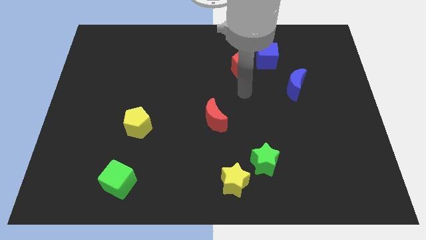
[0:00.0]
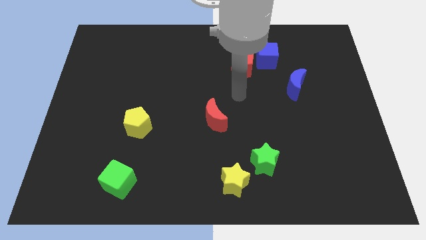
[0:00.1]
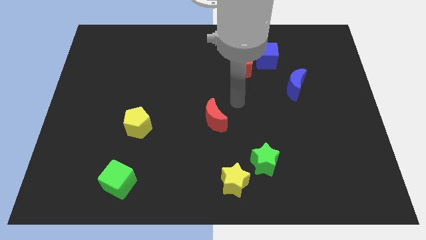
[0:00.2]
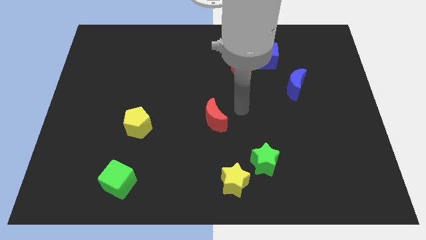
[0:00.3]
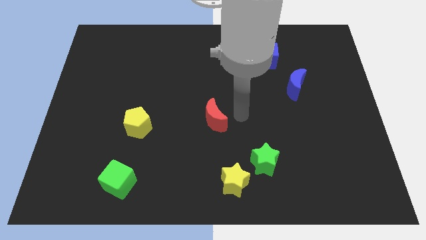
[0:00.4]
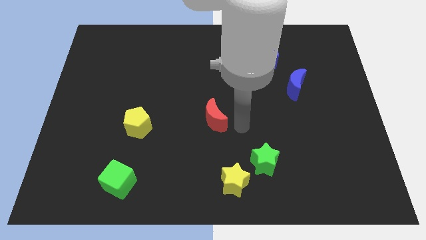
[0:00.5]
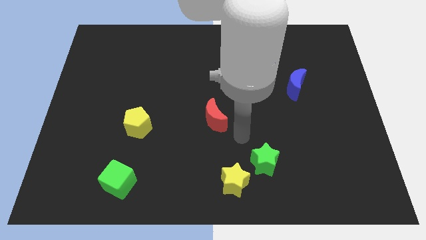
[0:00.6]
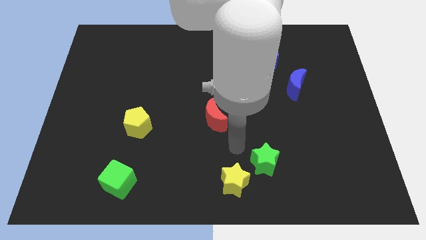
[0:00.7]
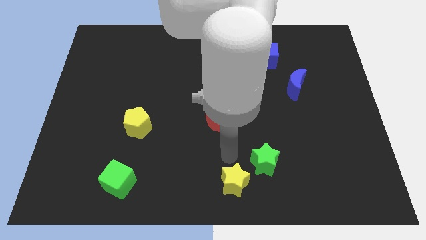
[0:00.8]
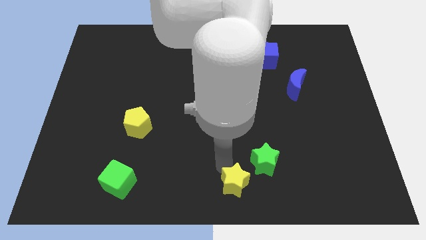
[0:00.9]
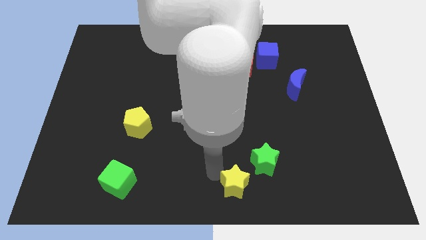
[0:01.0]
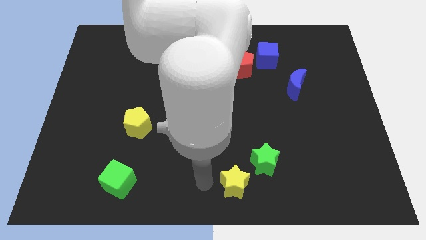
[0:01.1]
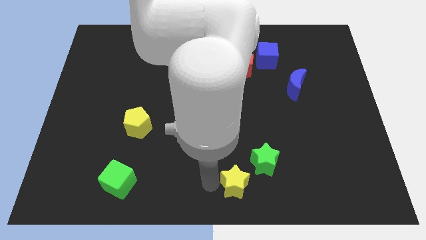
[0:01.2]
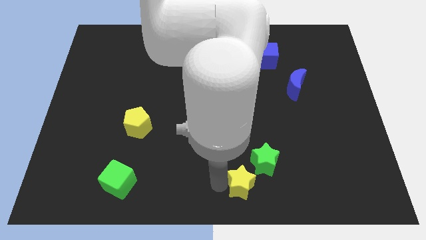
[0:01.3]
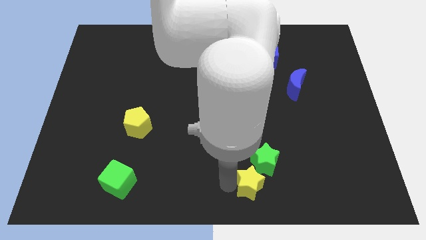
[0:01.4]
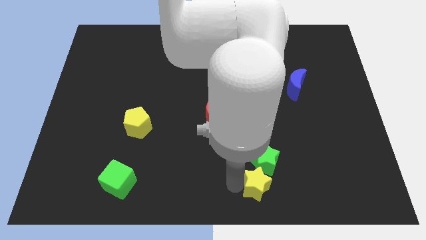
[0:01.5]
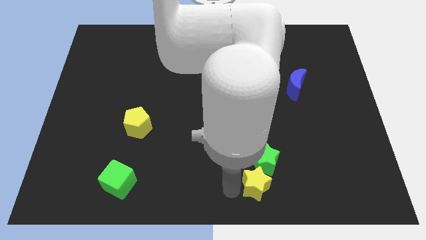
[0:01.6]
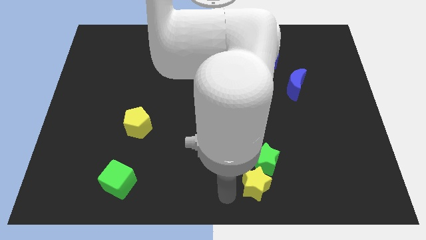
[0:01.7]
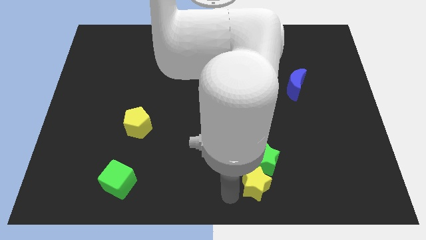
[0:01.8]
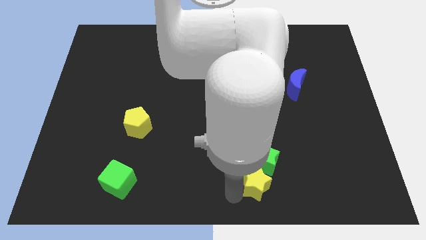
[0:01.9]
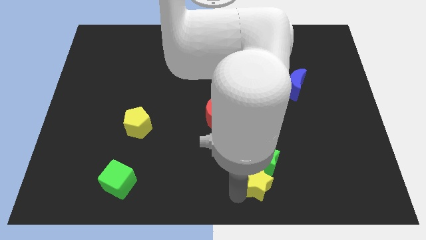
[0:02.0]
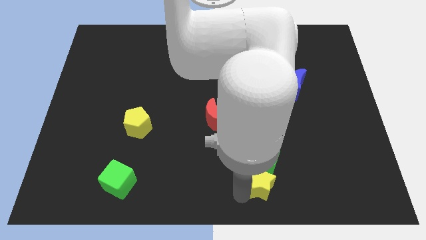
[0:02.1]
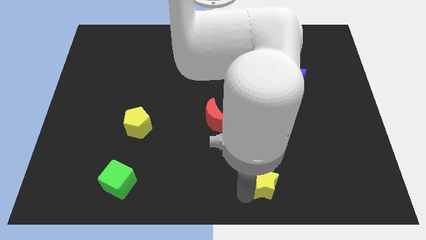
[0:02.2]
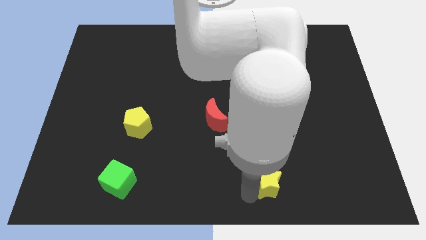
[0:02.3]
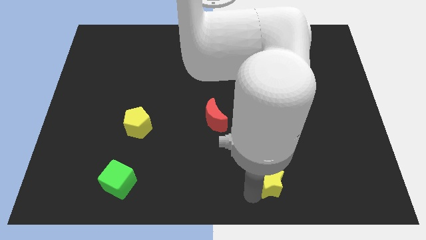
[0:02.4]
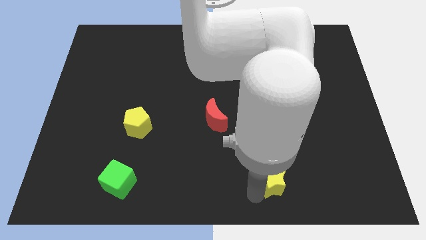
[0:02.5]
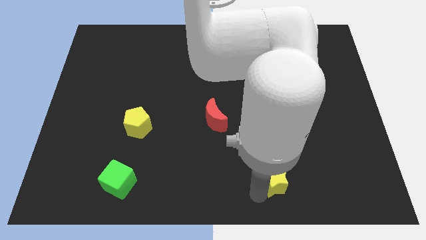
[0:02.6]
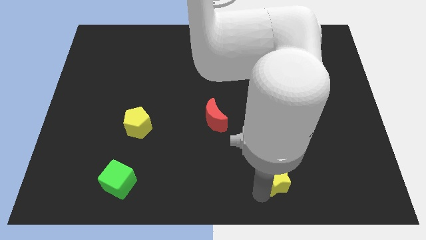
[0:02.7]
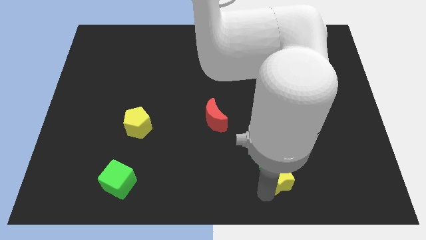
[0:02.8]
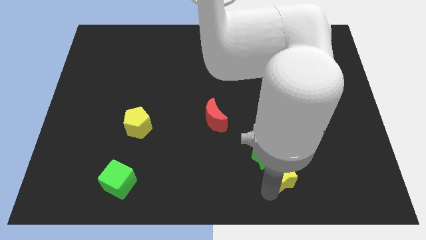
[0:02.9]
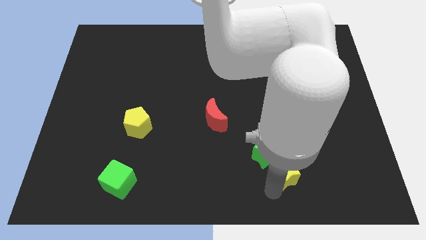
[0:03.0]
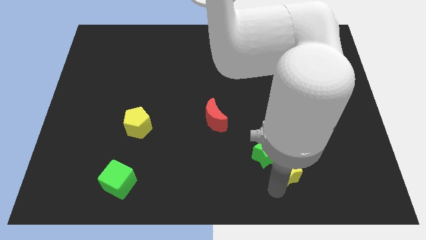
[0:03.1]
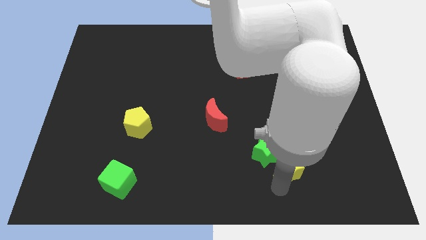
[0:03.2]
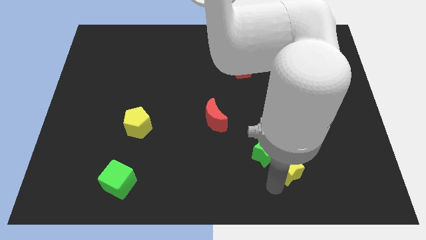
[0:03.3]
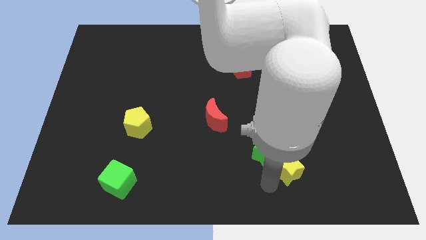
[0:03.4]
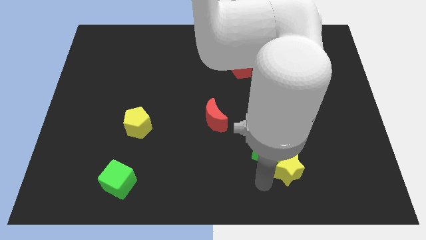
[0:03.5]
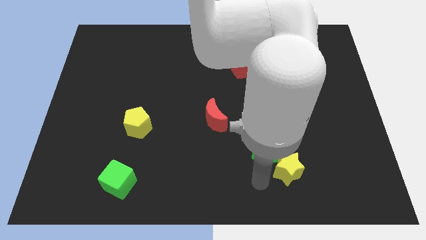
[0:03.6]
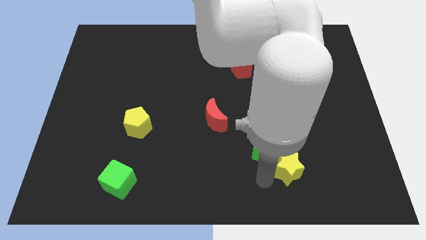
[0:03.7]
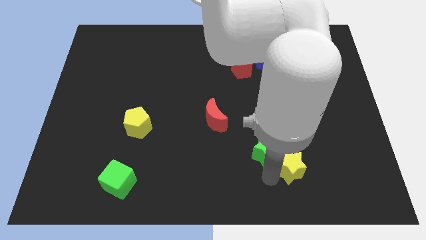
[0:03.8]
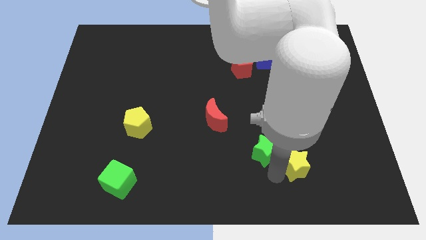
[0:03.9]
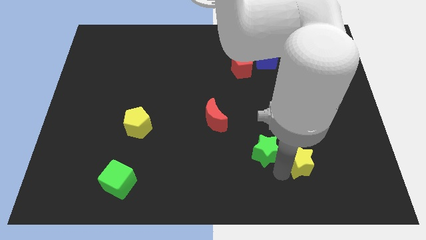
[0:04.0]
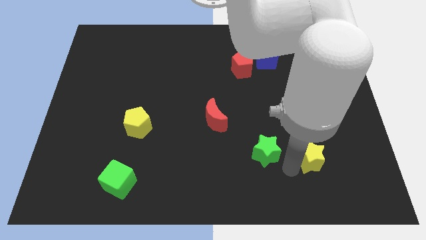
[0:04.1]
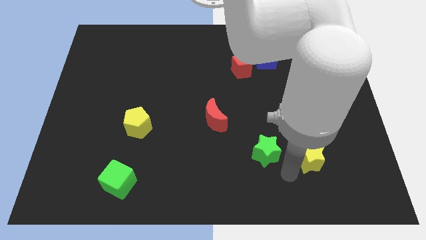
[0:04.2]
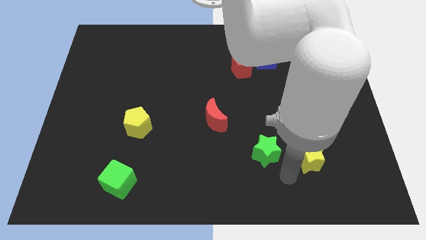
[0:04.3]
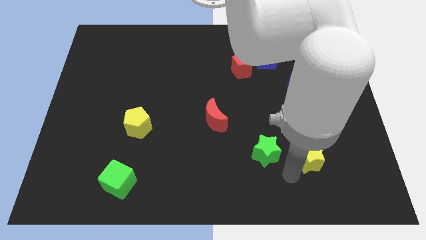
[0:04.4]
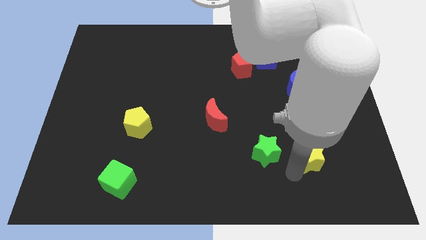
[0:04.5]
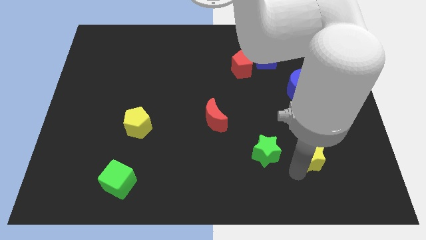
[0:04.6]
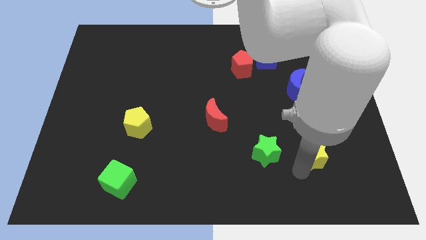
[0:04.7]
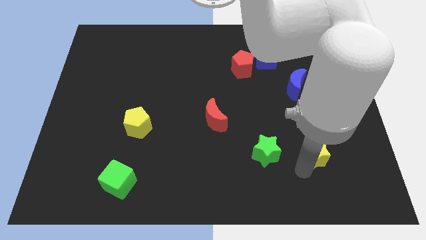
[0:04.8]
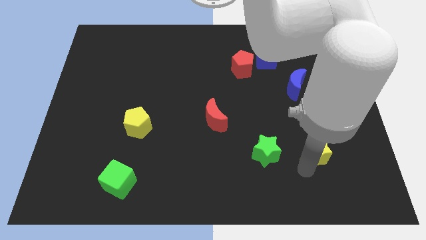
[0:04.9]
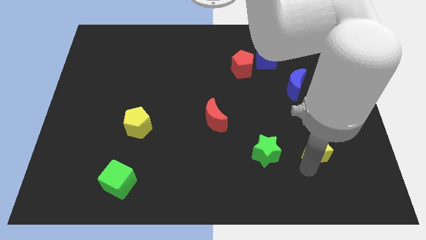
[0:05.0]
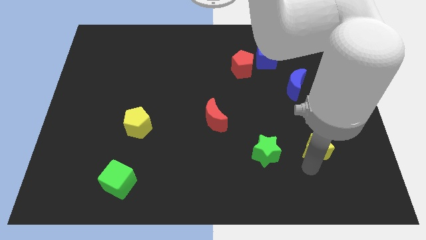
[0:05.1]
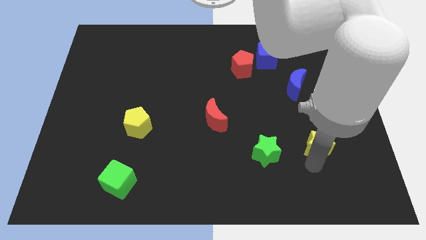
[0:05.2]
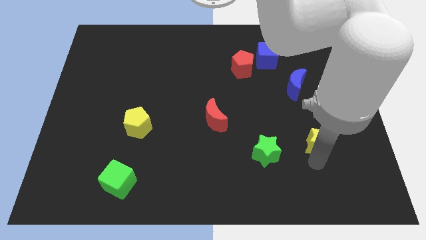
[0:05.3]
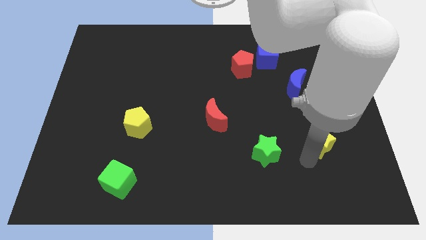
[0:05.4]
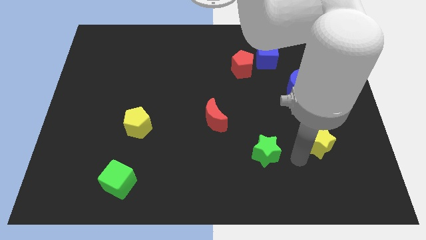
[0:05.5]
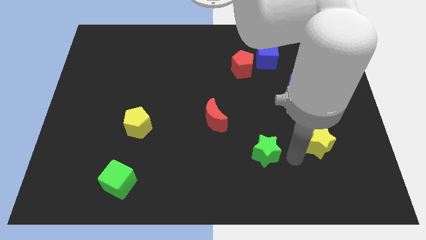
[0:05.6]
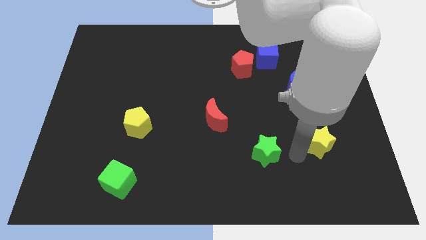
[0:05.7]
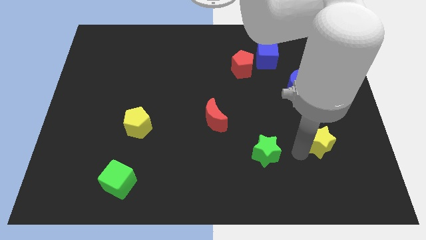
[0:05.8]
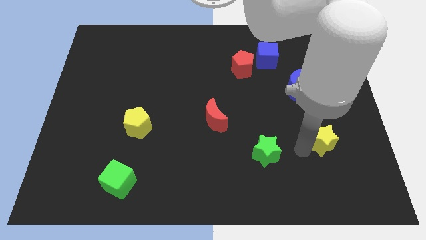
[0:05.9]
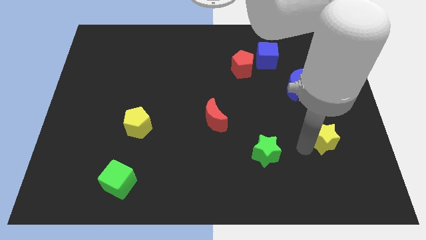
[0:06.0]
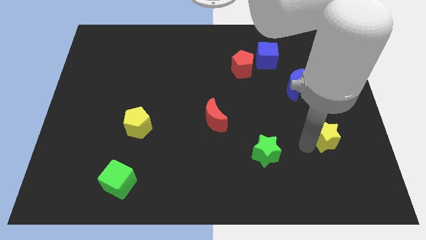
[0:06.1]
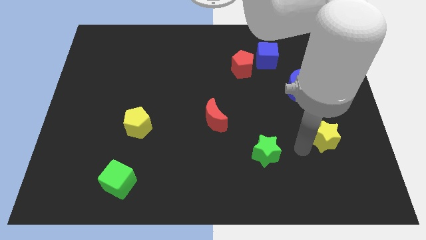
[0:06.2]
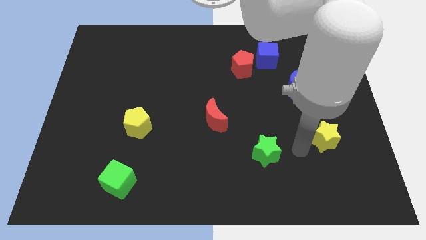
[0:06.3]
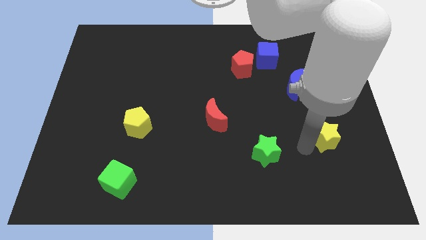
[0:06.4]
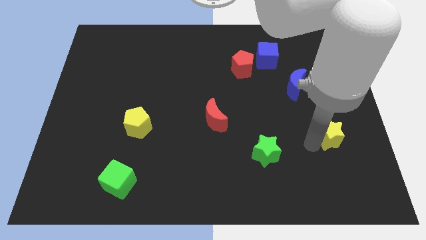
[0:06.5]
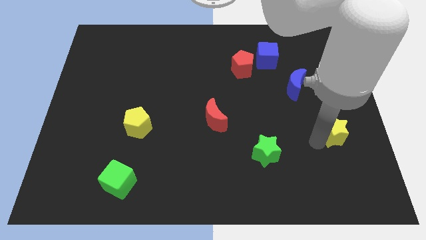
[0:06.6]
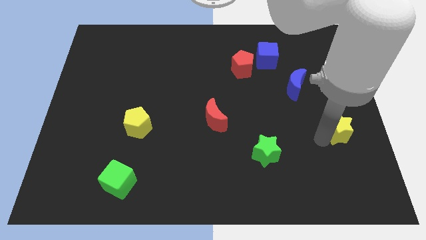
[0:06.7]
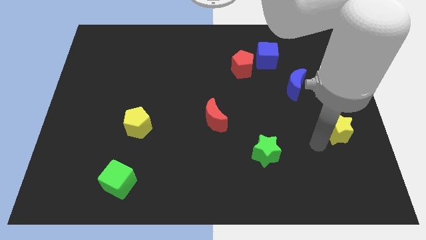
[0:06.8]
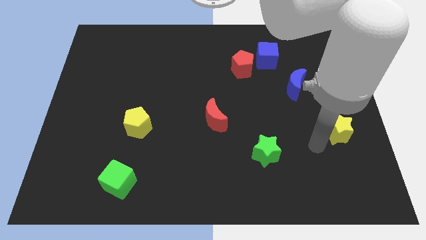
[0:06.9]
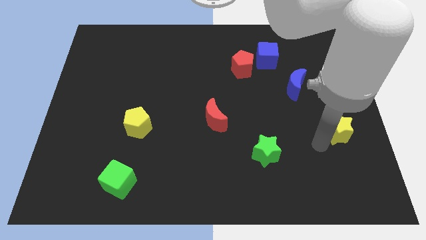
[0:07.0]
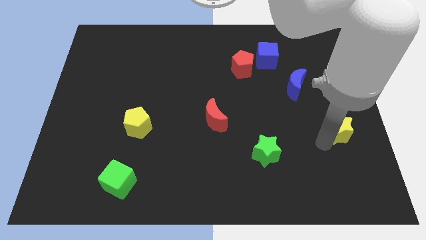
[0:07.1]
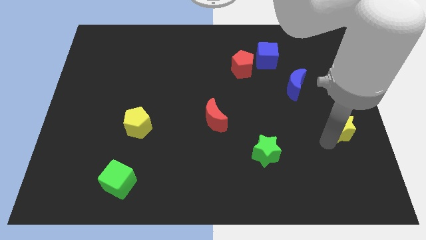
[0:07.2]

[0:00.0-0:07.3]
put the yellow star to the right side
